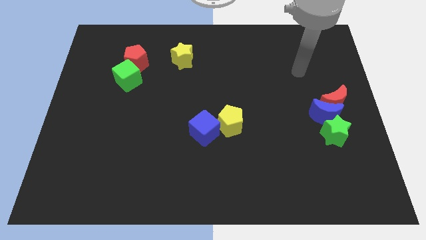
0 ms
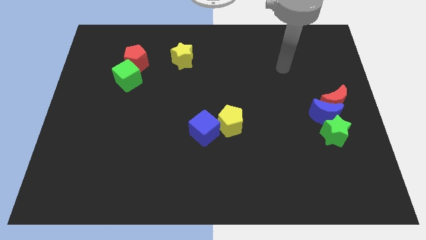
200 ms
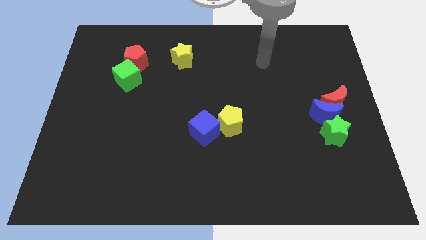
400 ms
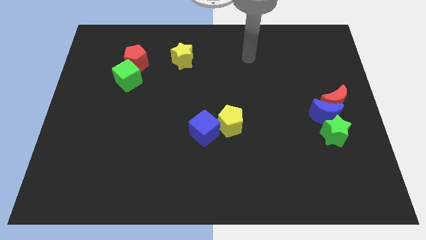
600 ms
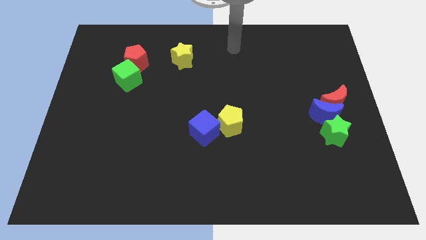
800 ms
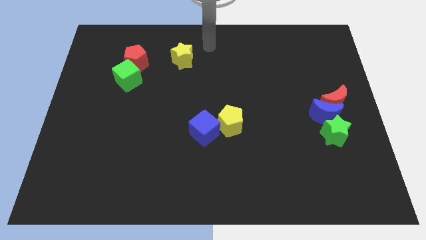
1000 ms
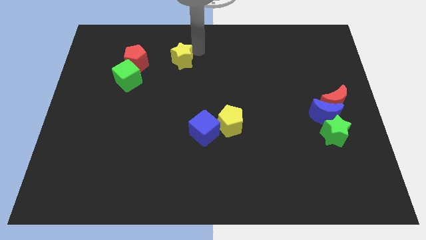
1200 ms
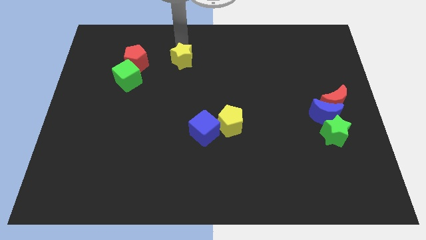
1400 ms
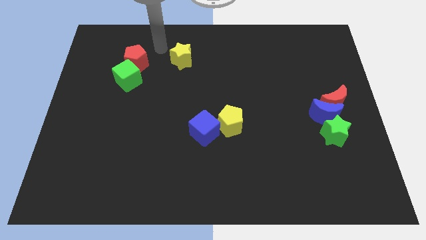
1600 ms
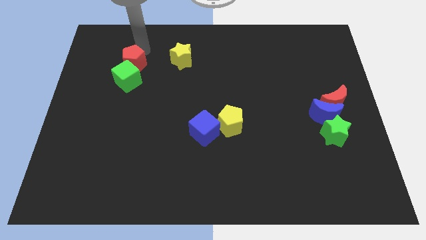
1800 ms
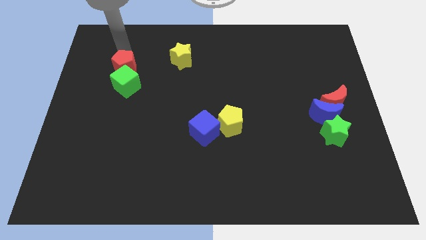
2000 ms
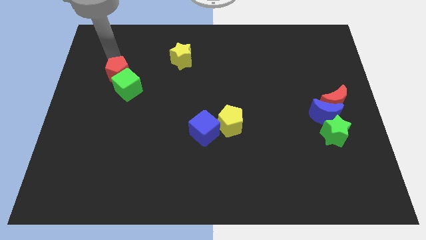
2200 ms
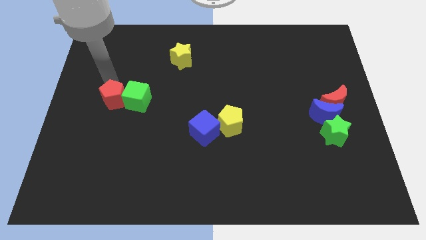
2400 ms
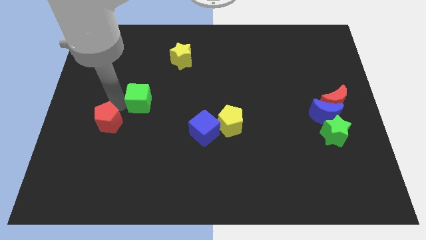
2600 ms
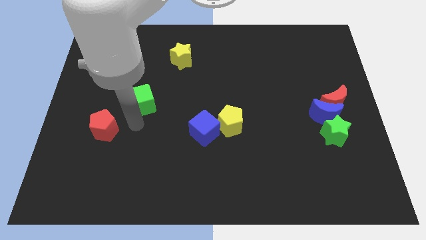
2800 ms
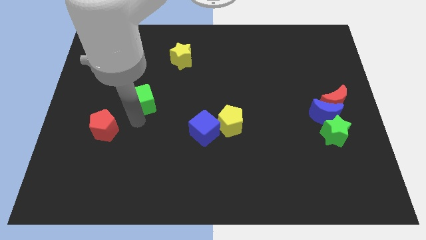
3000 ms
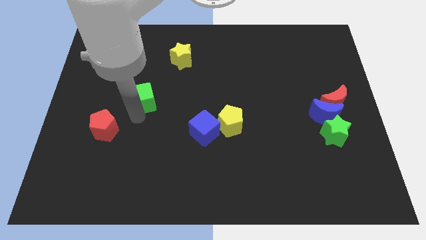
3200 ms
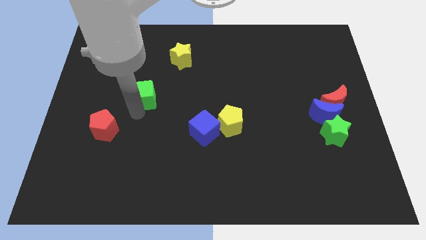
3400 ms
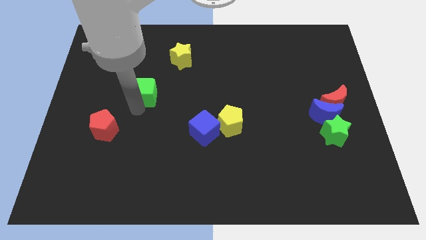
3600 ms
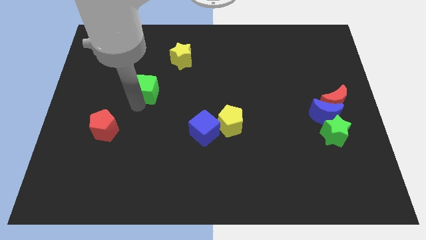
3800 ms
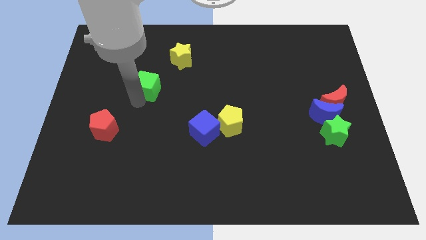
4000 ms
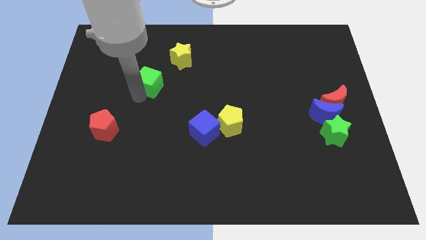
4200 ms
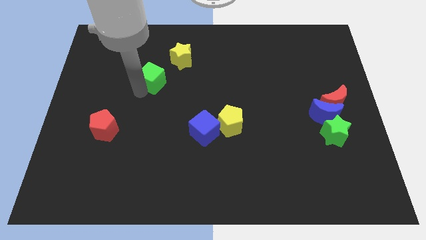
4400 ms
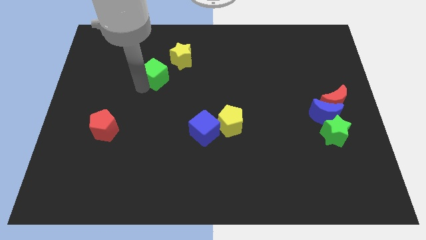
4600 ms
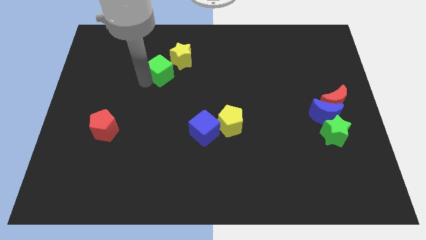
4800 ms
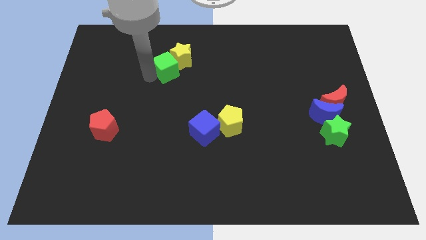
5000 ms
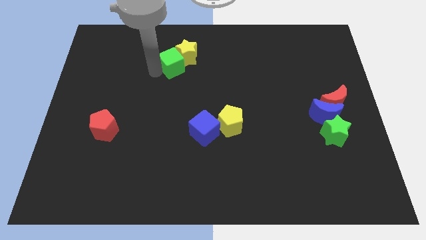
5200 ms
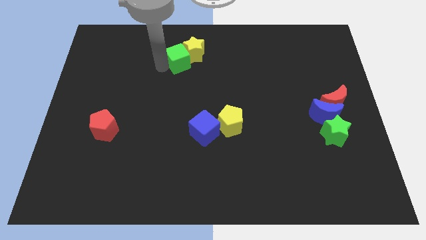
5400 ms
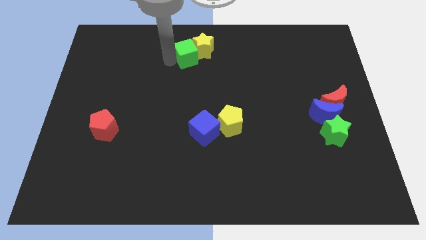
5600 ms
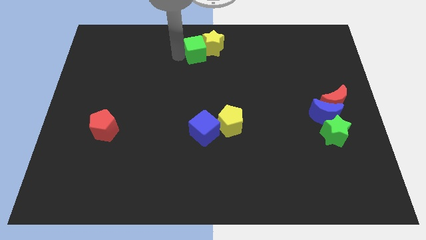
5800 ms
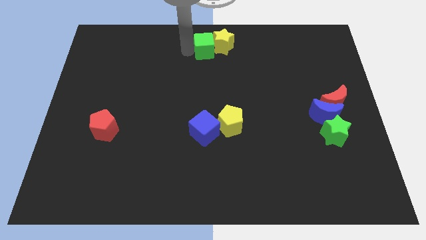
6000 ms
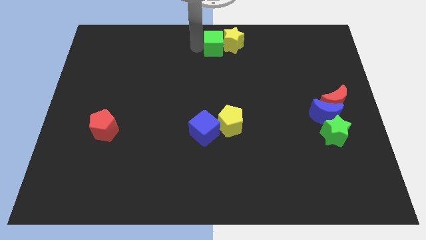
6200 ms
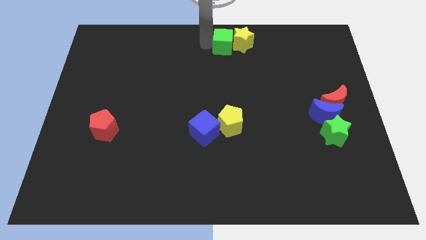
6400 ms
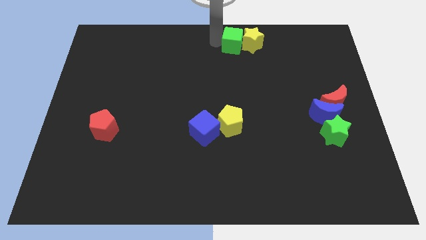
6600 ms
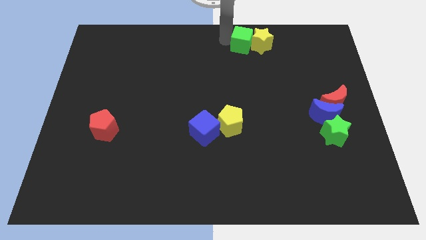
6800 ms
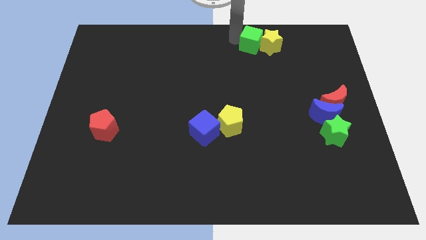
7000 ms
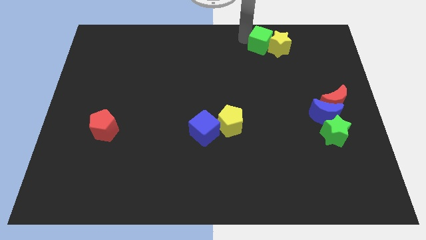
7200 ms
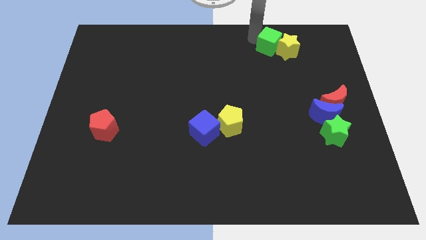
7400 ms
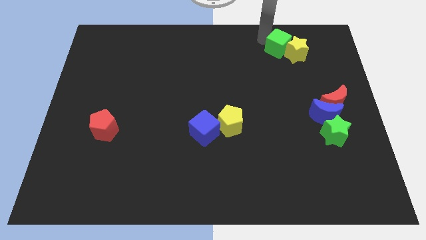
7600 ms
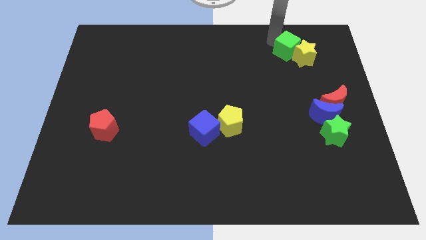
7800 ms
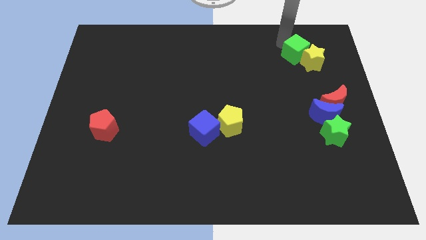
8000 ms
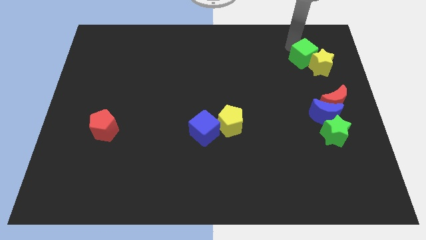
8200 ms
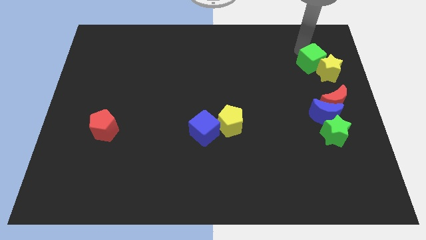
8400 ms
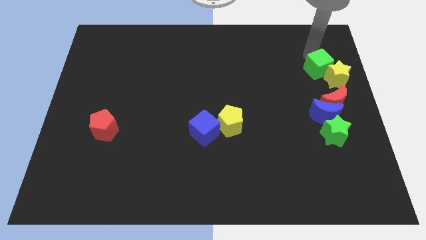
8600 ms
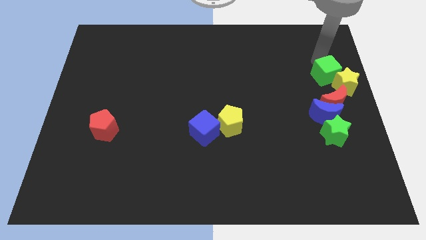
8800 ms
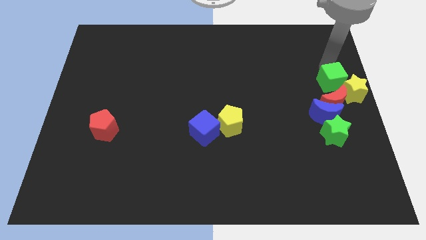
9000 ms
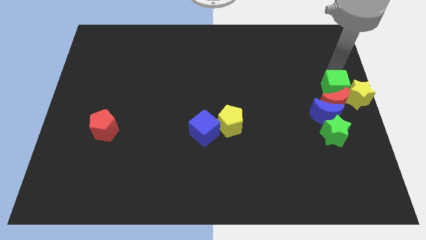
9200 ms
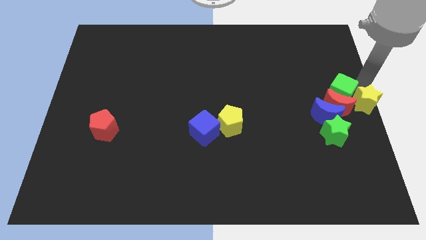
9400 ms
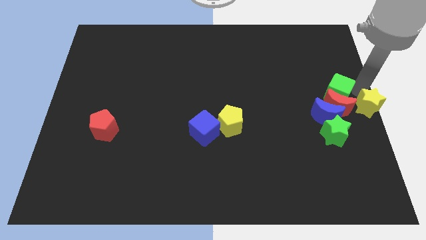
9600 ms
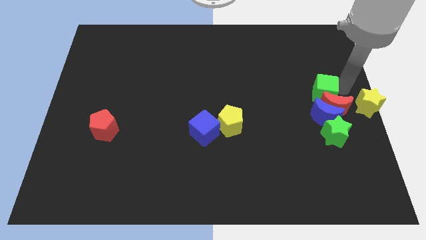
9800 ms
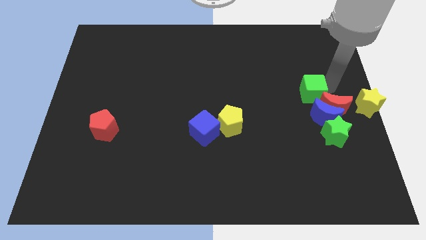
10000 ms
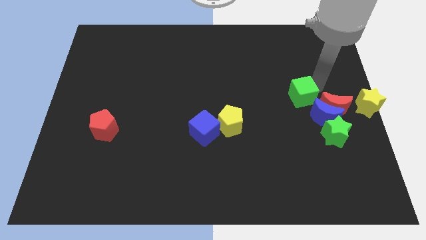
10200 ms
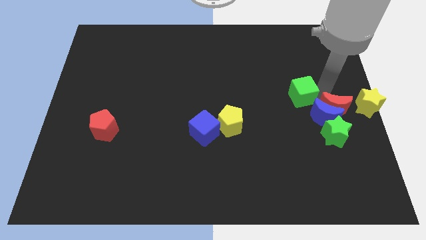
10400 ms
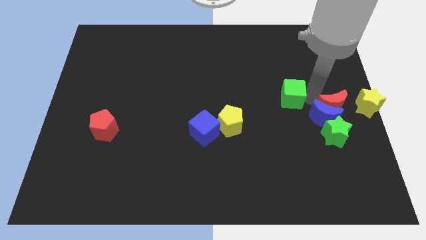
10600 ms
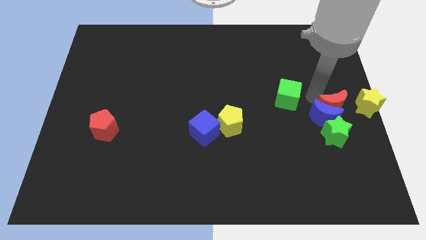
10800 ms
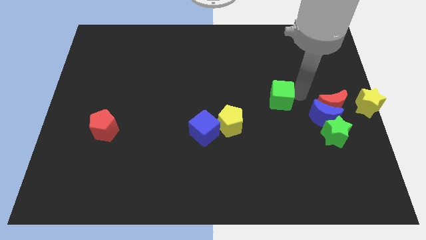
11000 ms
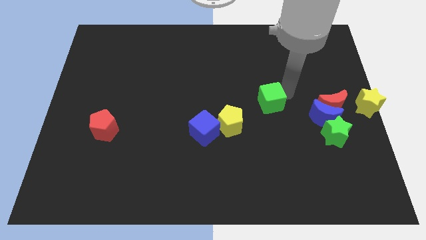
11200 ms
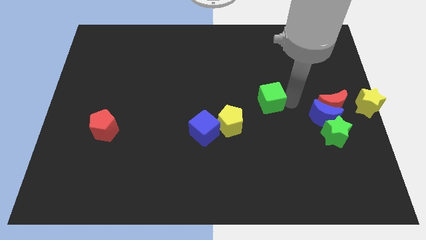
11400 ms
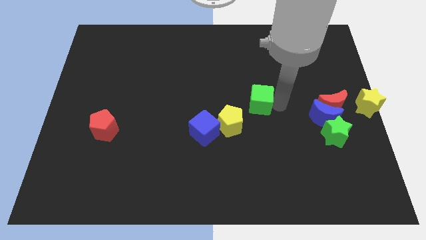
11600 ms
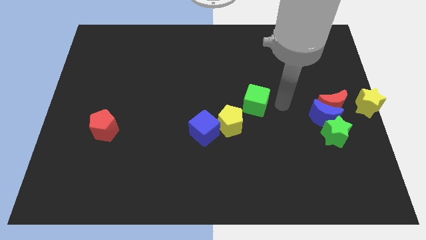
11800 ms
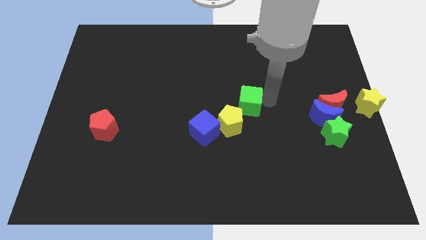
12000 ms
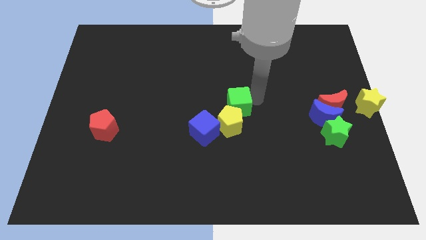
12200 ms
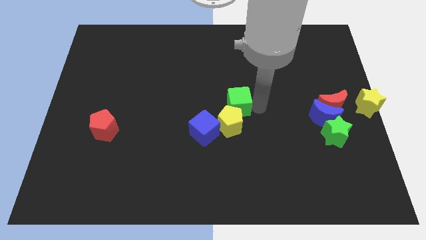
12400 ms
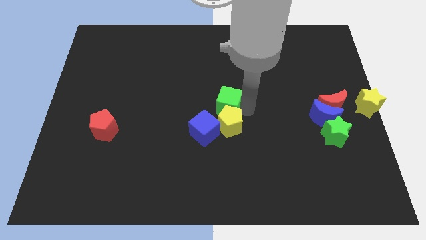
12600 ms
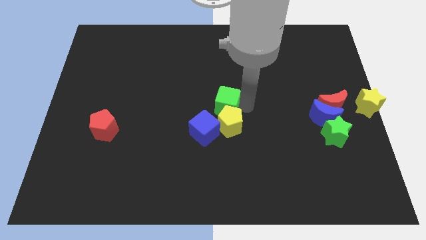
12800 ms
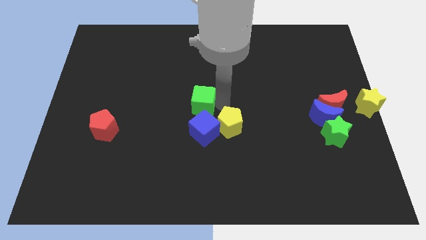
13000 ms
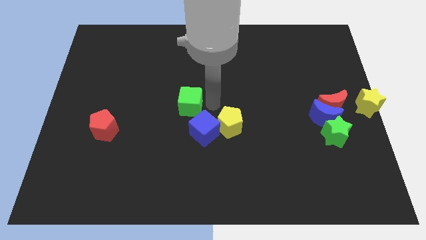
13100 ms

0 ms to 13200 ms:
put the green cube to the top left of the blue cube
